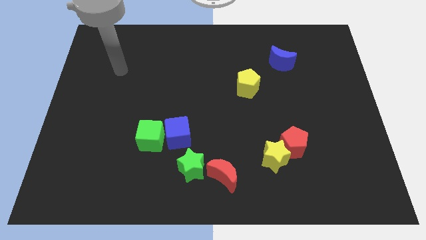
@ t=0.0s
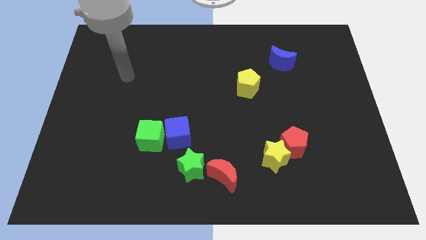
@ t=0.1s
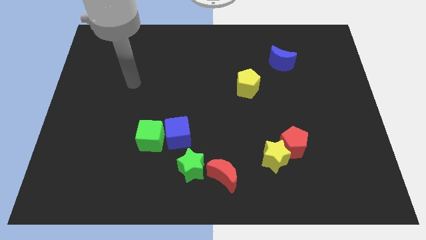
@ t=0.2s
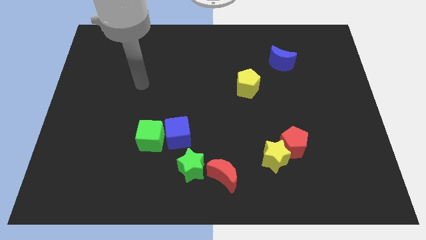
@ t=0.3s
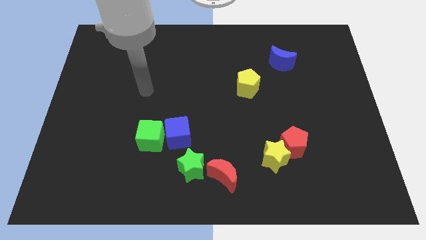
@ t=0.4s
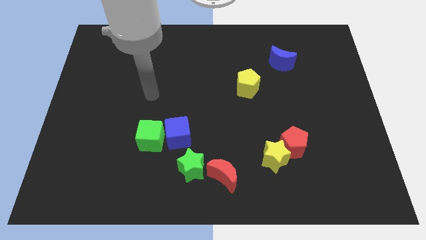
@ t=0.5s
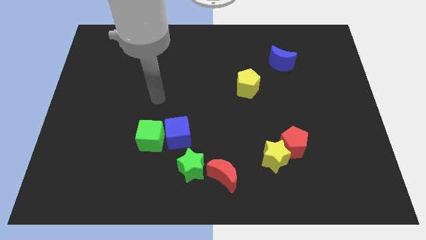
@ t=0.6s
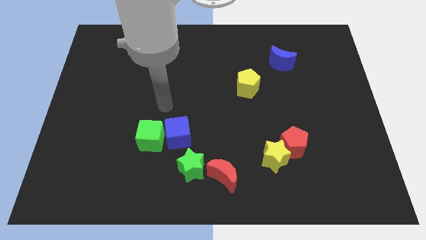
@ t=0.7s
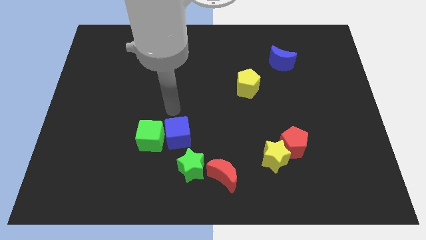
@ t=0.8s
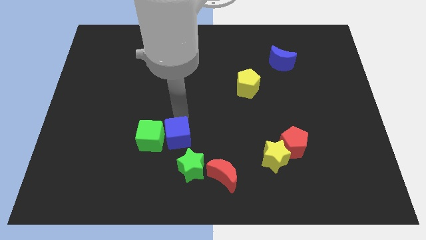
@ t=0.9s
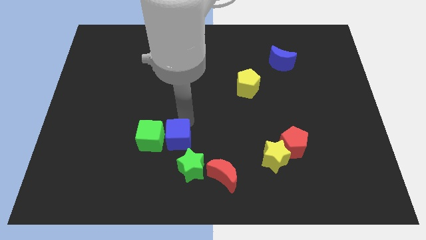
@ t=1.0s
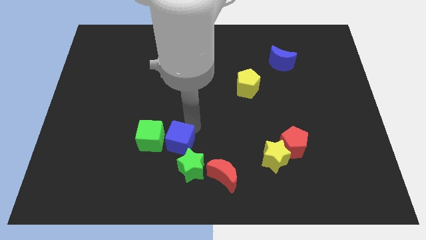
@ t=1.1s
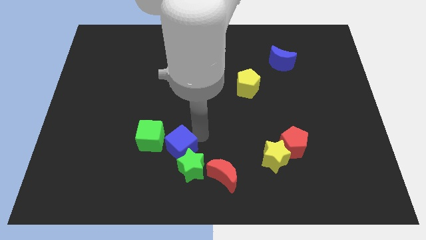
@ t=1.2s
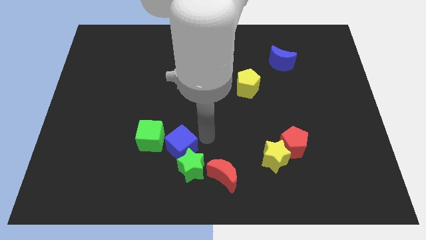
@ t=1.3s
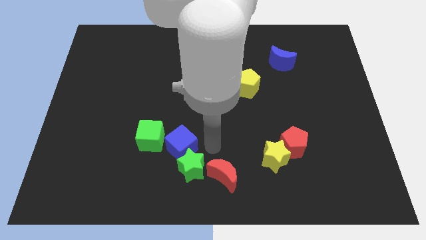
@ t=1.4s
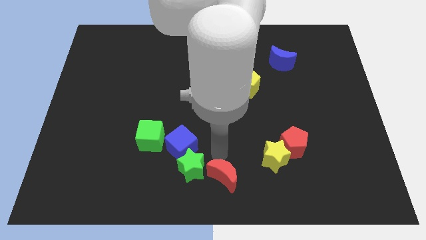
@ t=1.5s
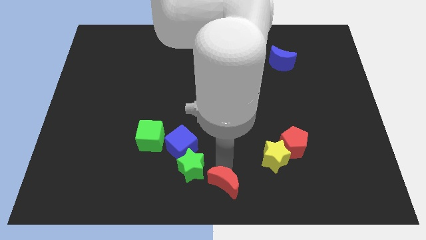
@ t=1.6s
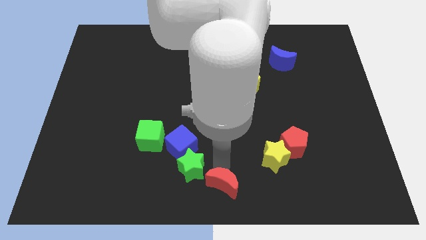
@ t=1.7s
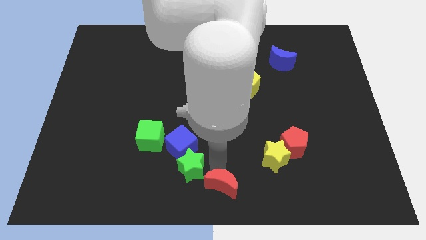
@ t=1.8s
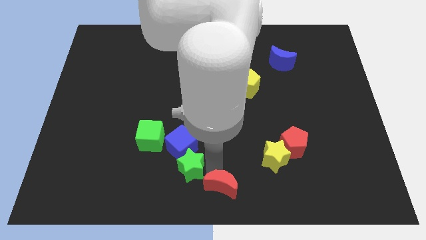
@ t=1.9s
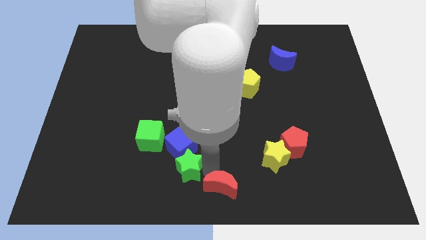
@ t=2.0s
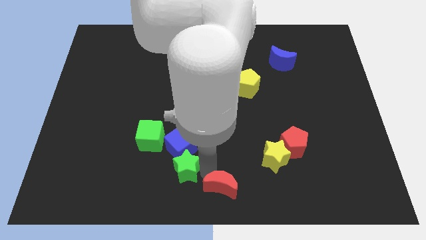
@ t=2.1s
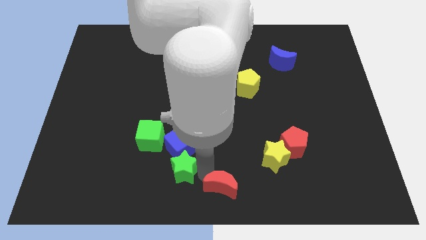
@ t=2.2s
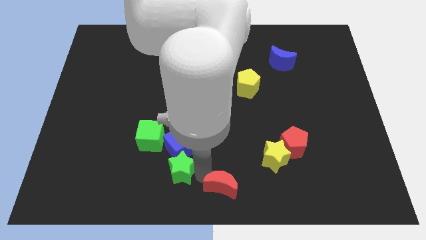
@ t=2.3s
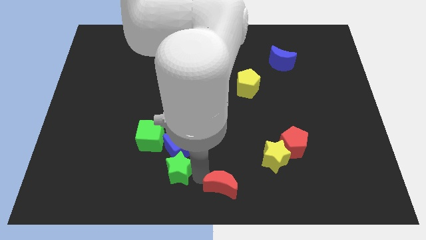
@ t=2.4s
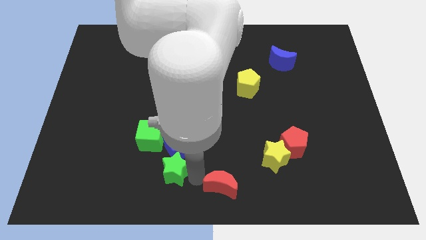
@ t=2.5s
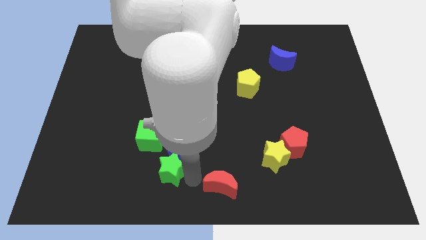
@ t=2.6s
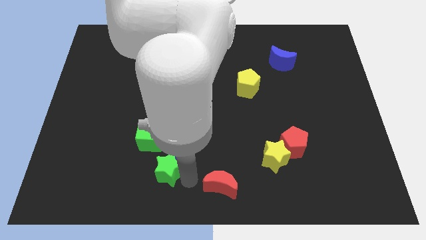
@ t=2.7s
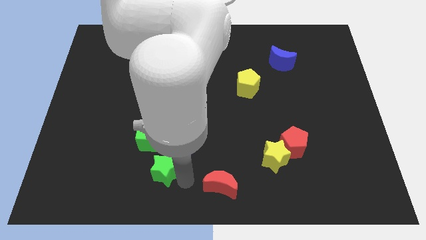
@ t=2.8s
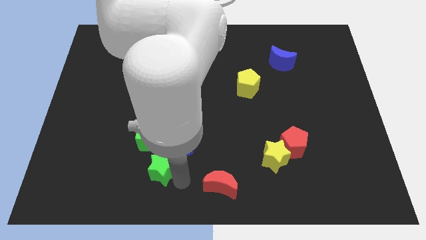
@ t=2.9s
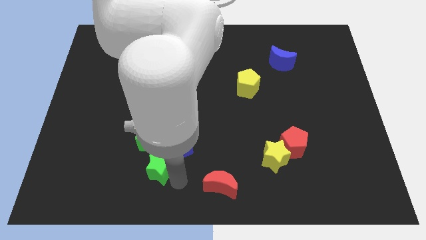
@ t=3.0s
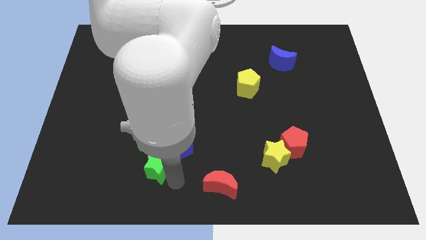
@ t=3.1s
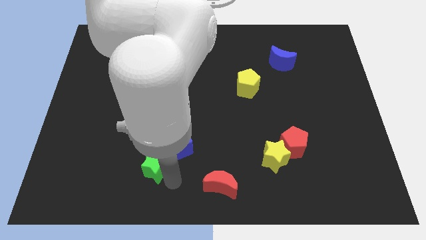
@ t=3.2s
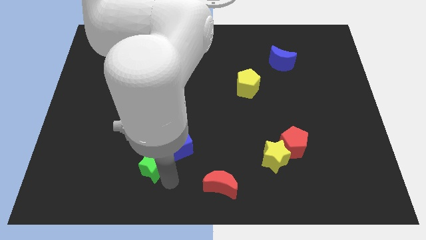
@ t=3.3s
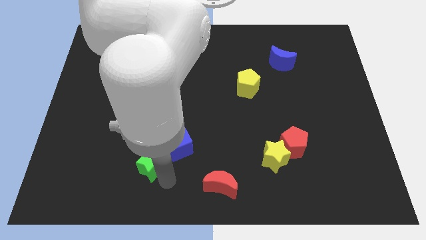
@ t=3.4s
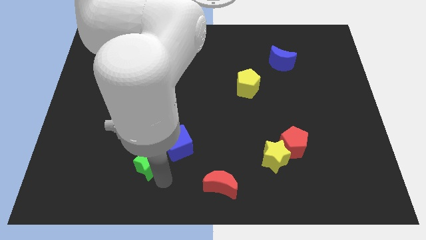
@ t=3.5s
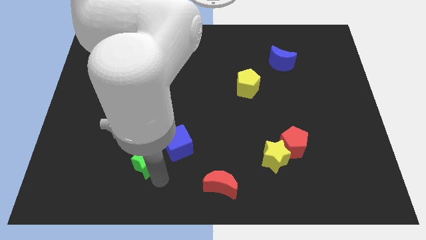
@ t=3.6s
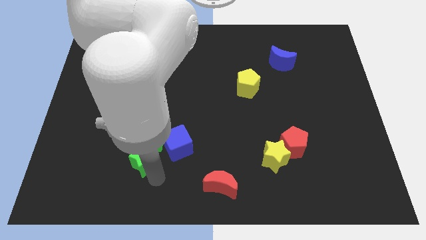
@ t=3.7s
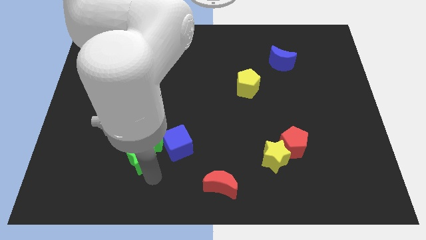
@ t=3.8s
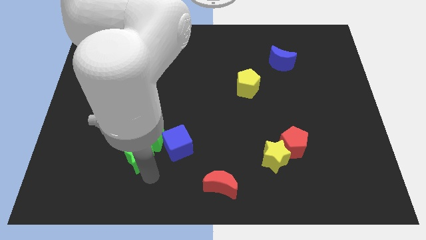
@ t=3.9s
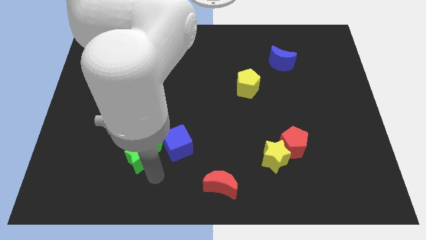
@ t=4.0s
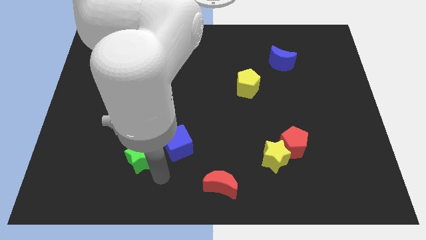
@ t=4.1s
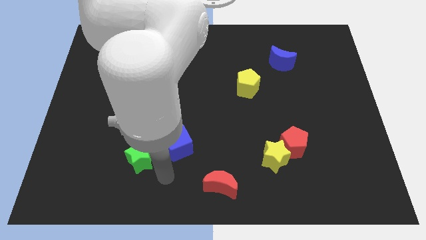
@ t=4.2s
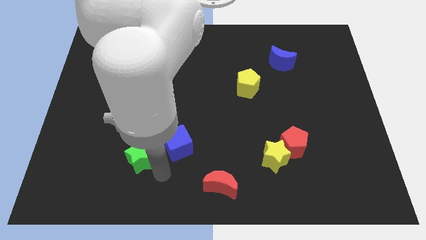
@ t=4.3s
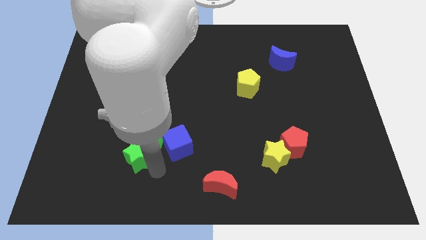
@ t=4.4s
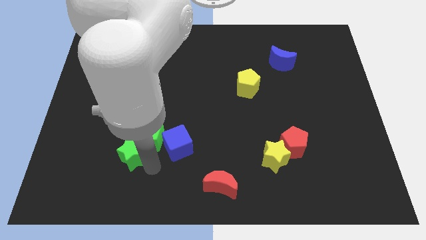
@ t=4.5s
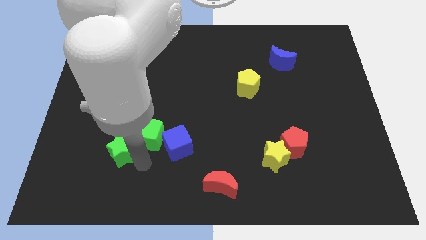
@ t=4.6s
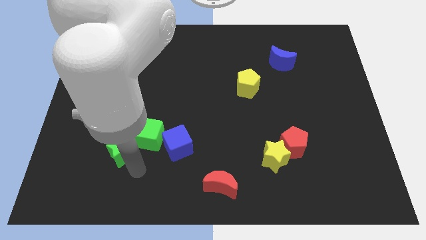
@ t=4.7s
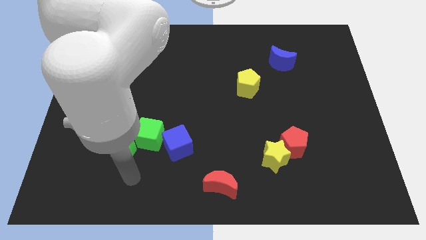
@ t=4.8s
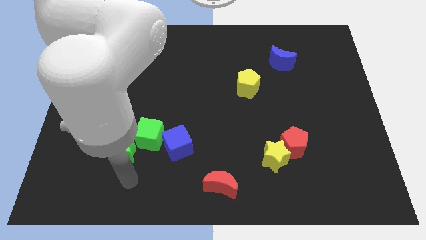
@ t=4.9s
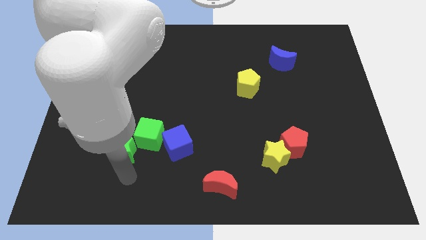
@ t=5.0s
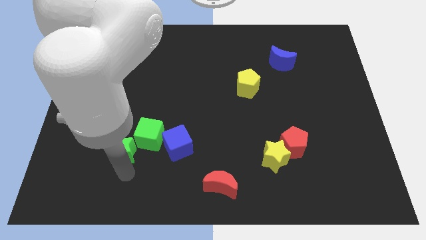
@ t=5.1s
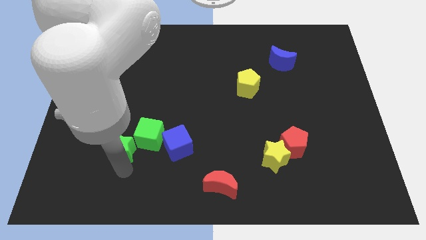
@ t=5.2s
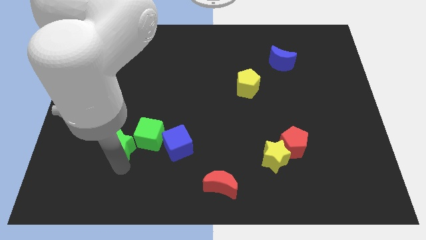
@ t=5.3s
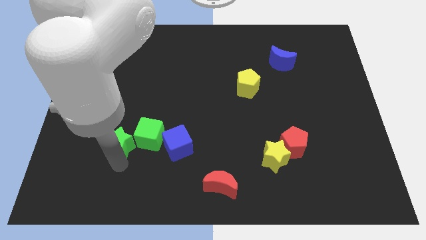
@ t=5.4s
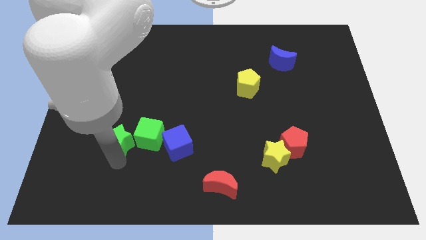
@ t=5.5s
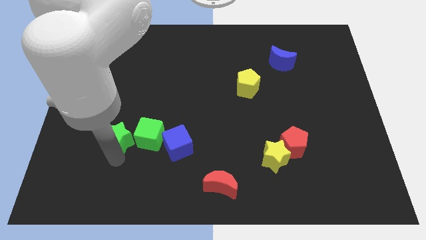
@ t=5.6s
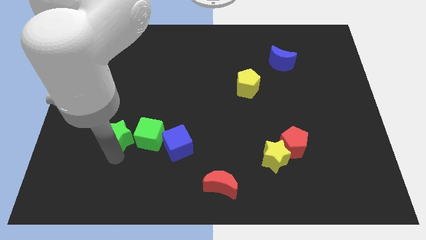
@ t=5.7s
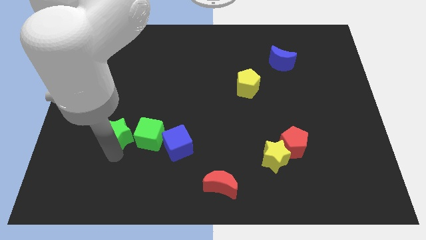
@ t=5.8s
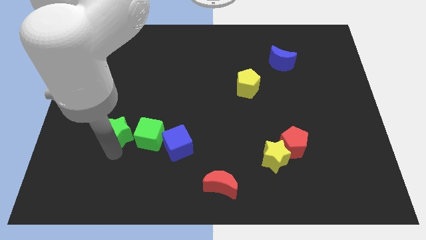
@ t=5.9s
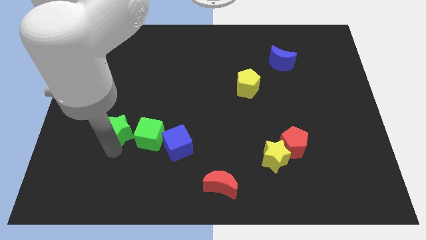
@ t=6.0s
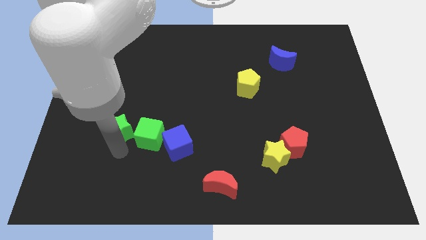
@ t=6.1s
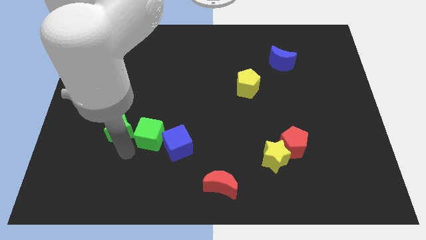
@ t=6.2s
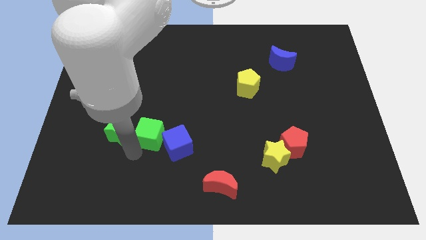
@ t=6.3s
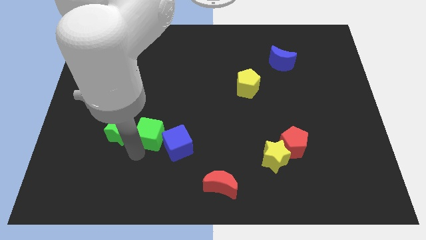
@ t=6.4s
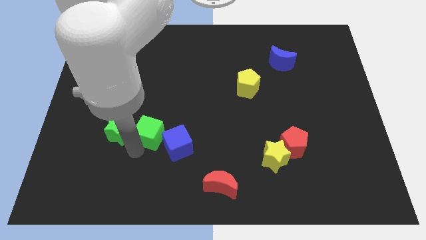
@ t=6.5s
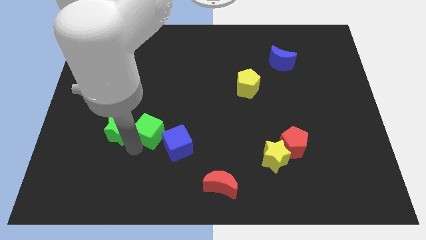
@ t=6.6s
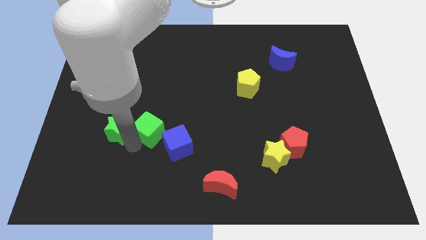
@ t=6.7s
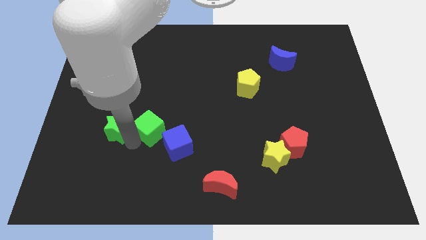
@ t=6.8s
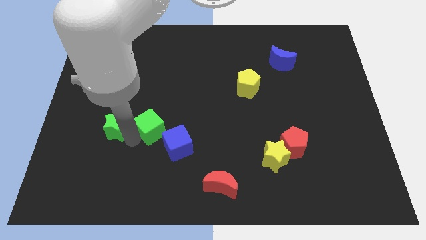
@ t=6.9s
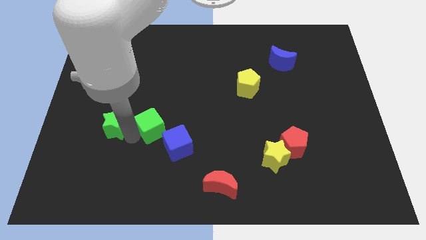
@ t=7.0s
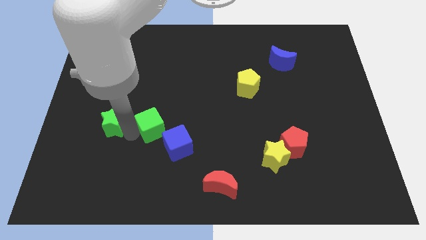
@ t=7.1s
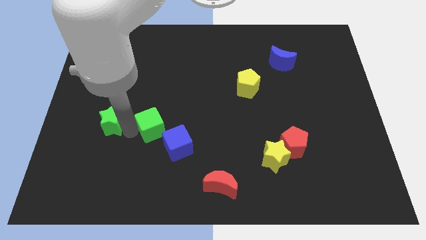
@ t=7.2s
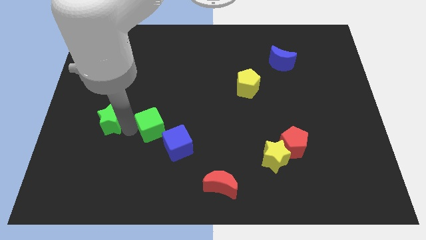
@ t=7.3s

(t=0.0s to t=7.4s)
move the green star upwards and then to the left

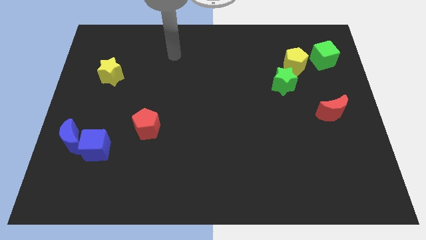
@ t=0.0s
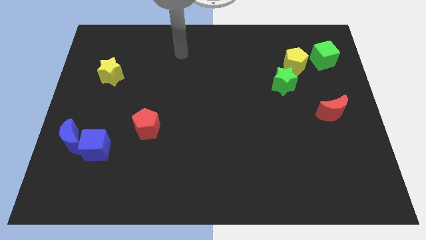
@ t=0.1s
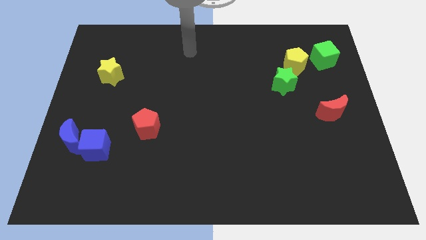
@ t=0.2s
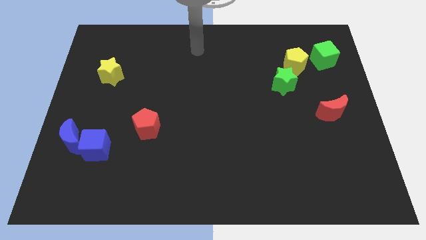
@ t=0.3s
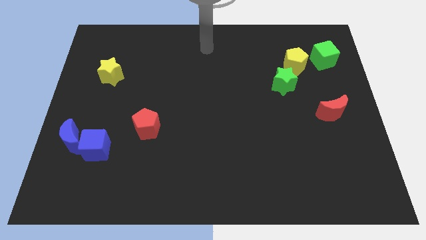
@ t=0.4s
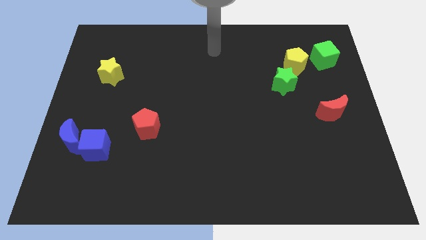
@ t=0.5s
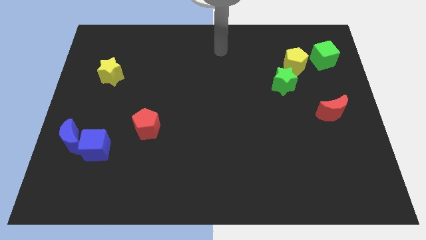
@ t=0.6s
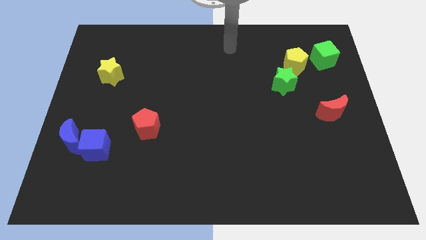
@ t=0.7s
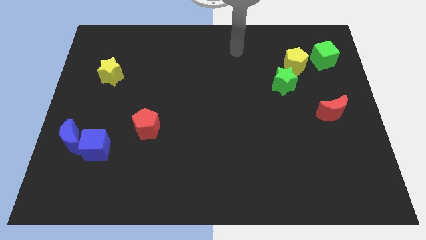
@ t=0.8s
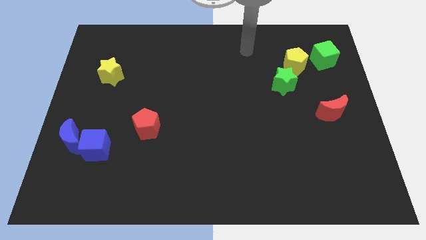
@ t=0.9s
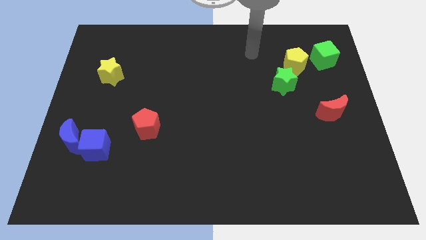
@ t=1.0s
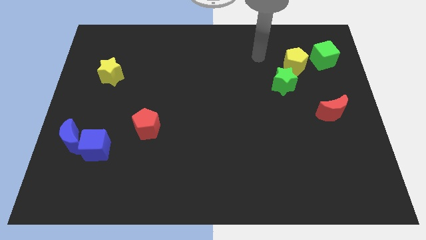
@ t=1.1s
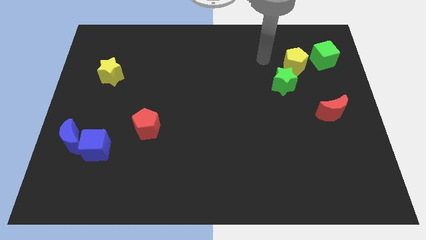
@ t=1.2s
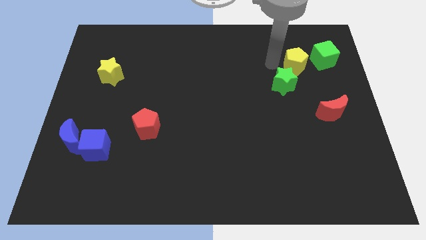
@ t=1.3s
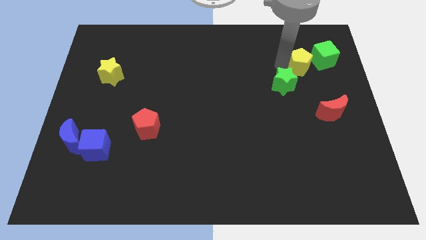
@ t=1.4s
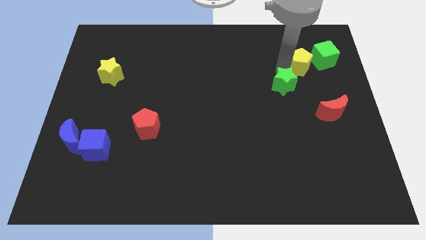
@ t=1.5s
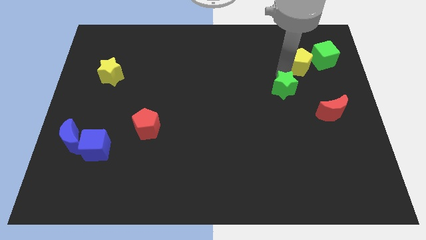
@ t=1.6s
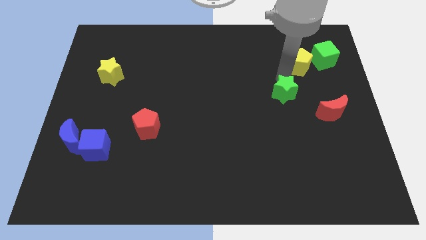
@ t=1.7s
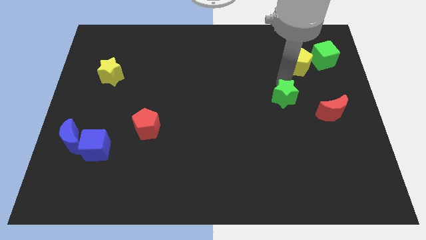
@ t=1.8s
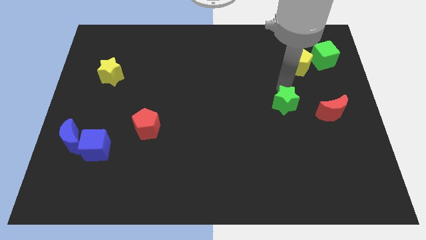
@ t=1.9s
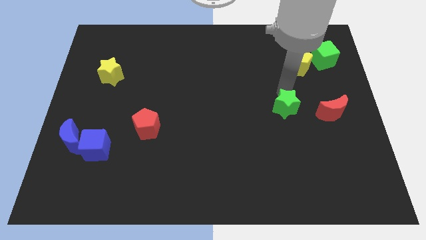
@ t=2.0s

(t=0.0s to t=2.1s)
push the green star down a little bit
